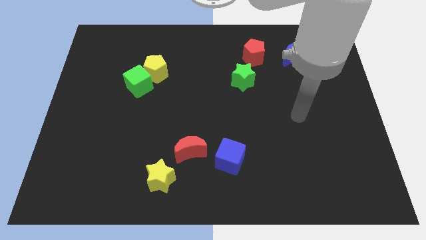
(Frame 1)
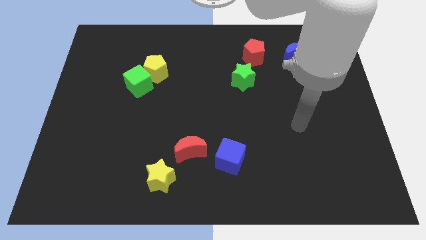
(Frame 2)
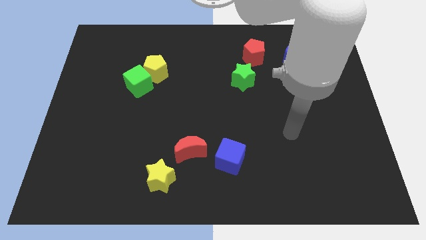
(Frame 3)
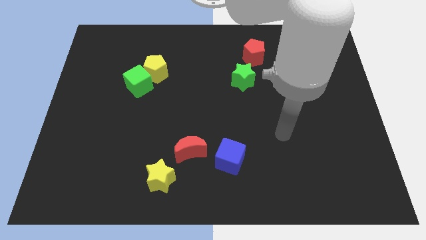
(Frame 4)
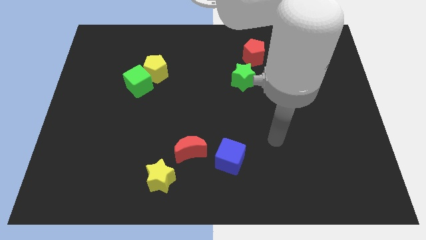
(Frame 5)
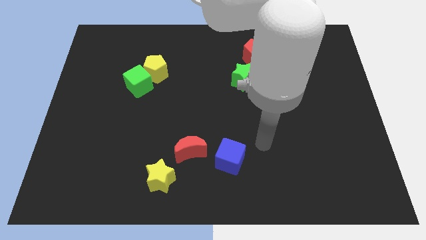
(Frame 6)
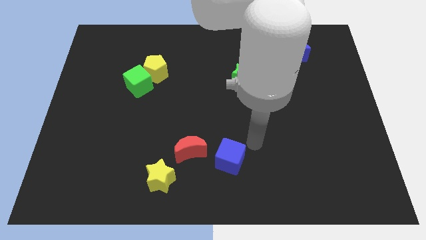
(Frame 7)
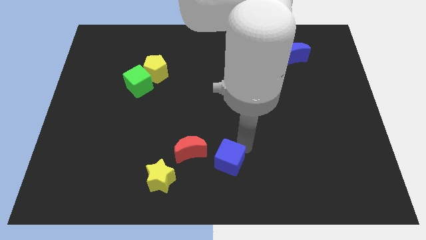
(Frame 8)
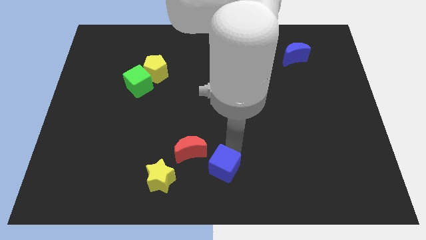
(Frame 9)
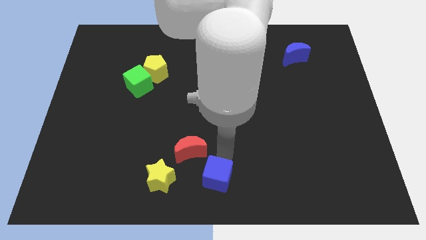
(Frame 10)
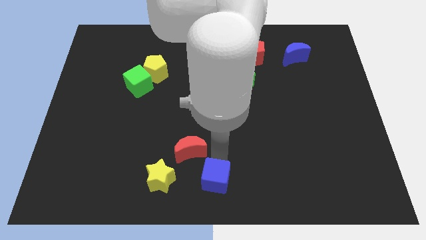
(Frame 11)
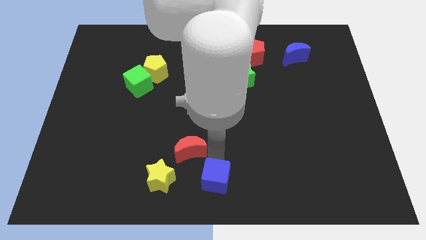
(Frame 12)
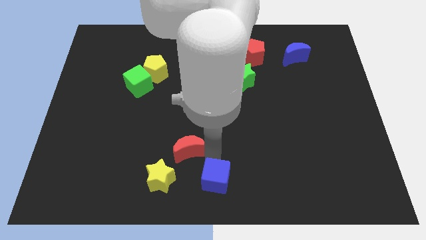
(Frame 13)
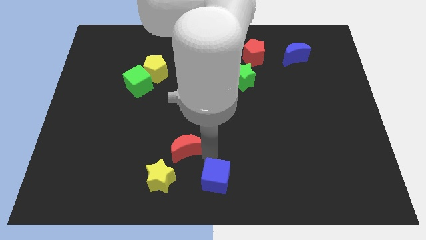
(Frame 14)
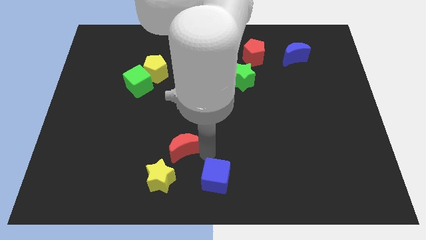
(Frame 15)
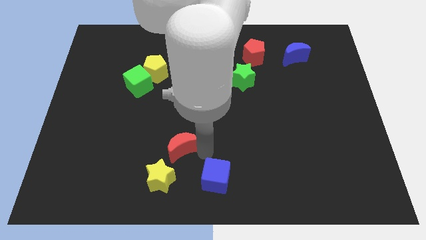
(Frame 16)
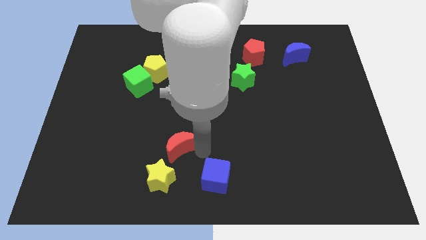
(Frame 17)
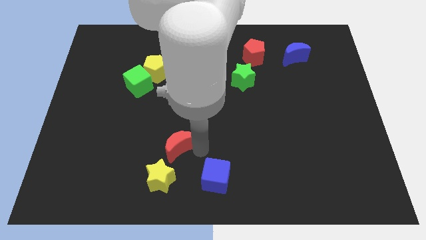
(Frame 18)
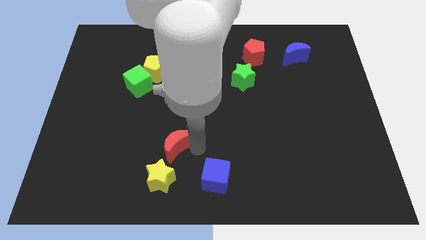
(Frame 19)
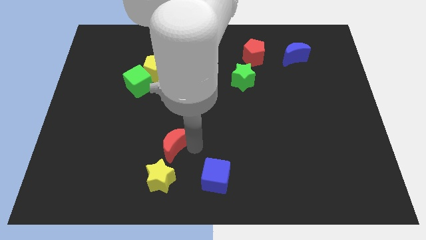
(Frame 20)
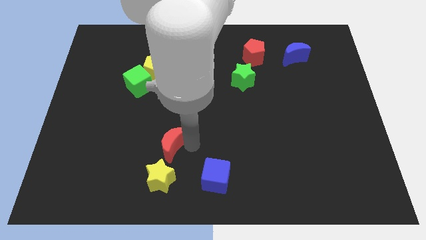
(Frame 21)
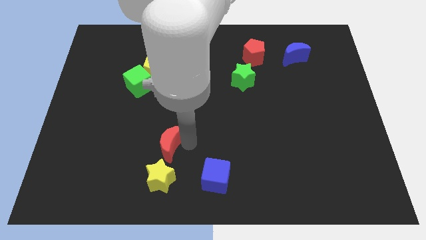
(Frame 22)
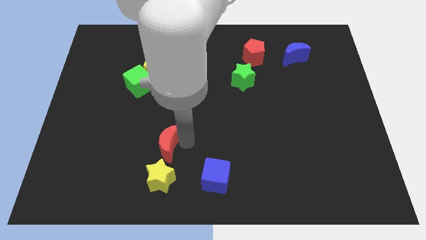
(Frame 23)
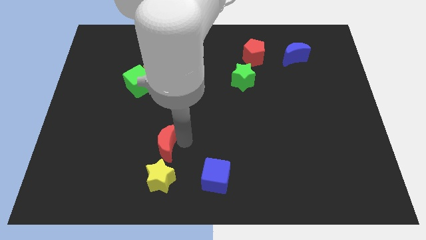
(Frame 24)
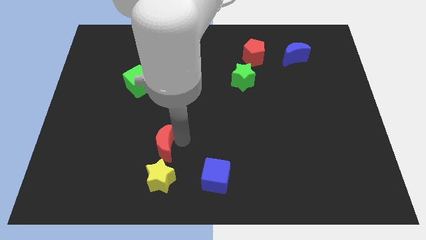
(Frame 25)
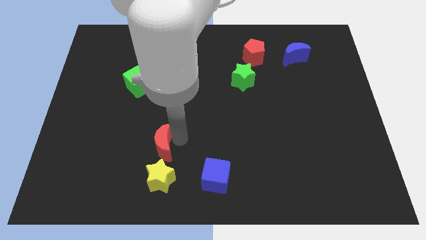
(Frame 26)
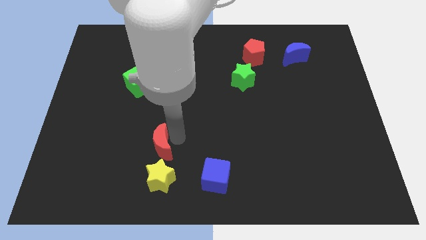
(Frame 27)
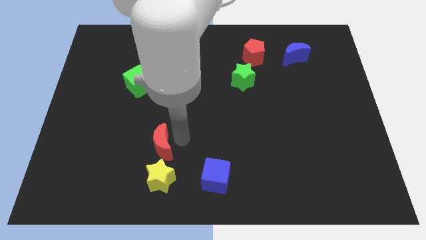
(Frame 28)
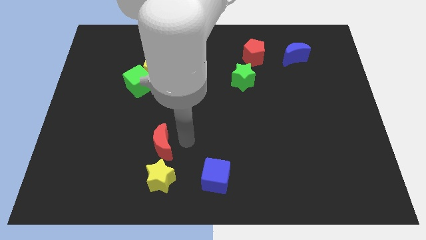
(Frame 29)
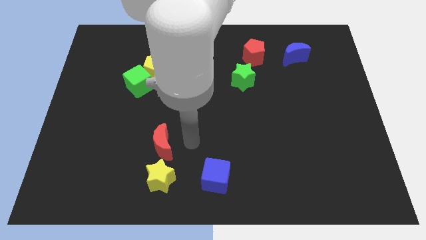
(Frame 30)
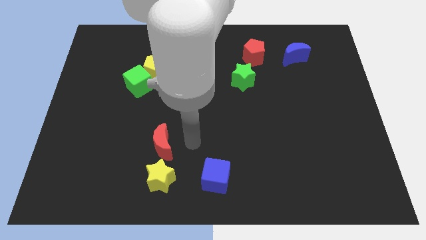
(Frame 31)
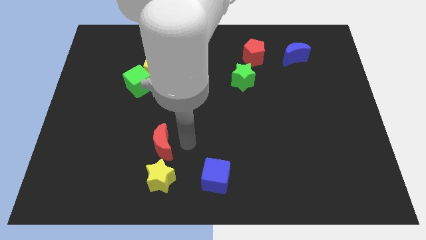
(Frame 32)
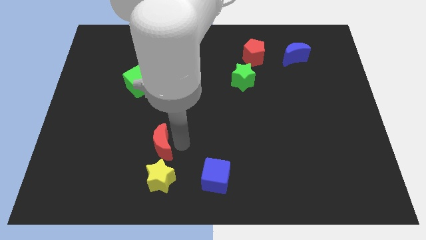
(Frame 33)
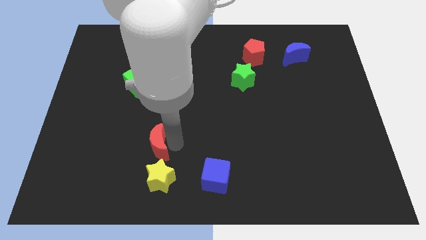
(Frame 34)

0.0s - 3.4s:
slightly slide the red moon left

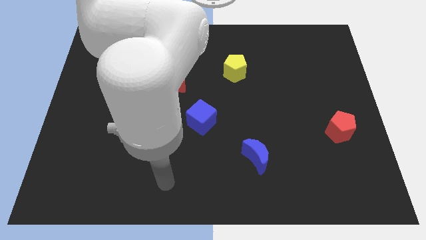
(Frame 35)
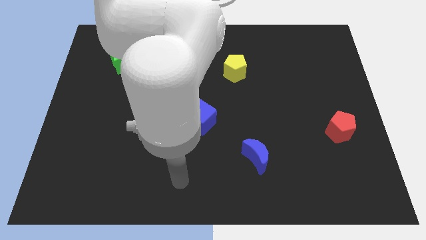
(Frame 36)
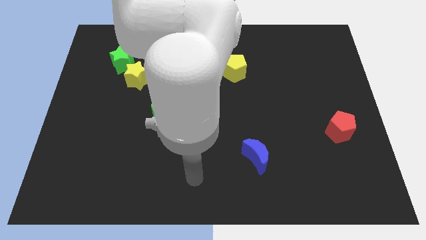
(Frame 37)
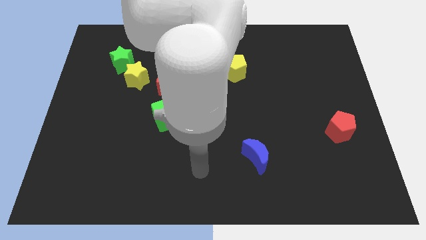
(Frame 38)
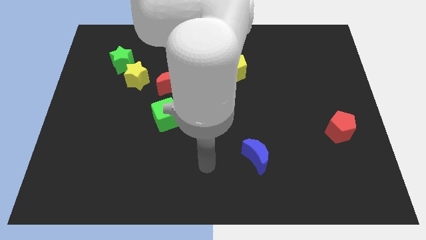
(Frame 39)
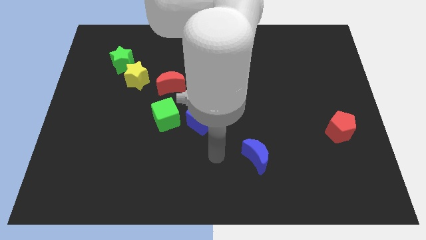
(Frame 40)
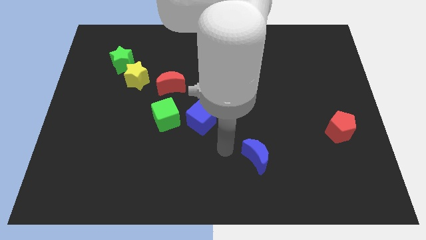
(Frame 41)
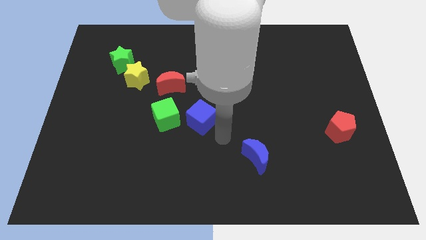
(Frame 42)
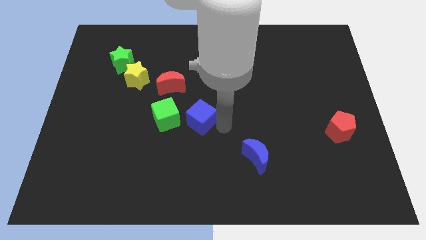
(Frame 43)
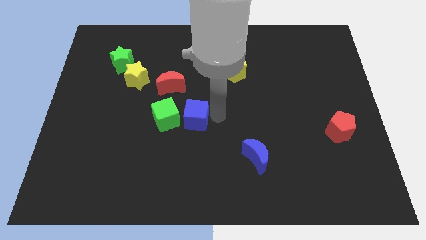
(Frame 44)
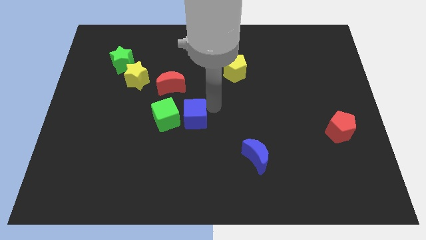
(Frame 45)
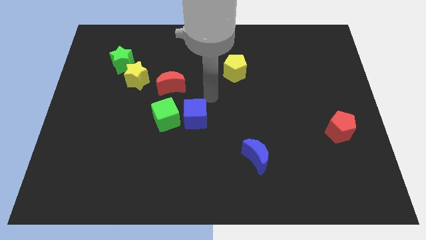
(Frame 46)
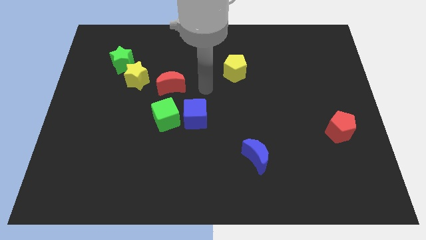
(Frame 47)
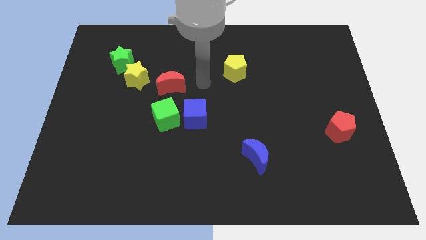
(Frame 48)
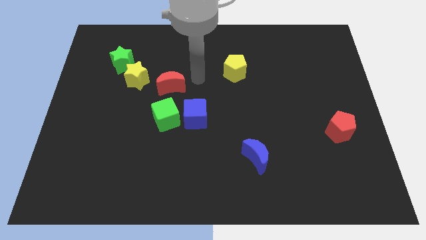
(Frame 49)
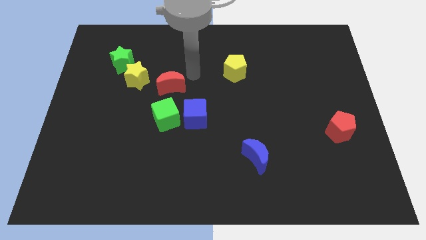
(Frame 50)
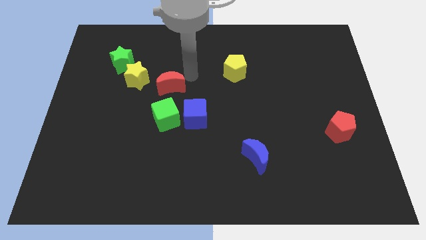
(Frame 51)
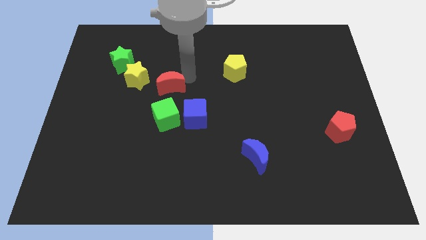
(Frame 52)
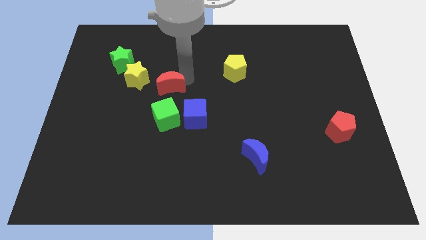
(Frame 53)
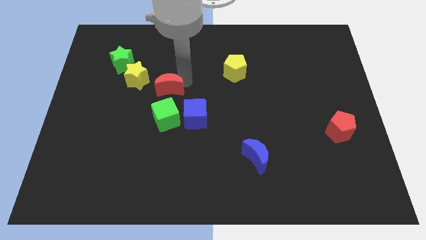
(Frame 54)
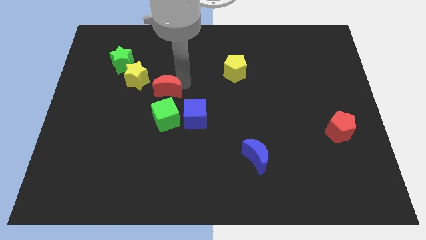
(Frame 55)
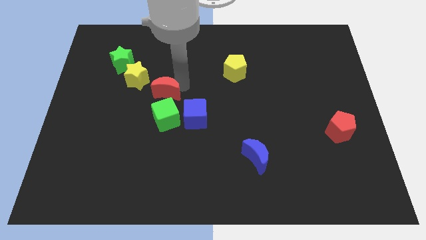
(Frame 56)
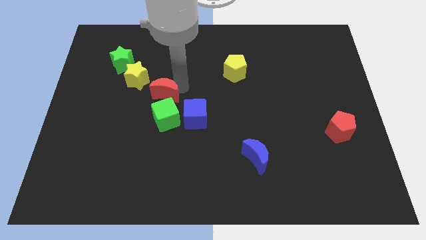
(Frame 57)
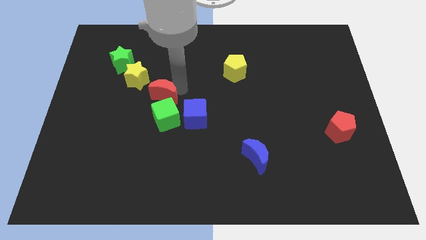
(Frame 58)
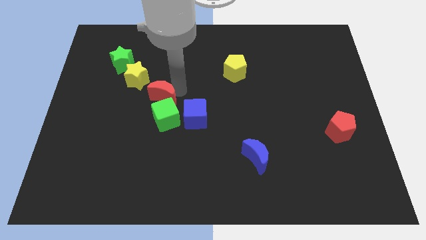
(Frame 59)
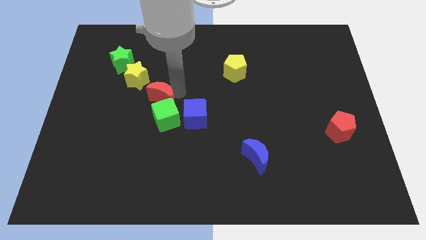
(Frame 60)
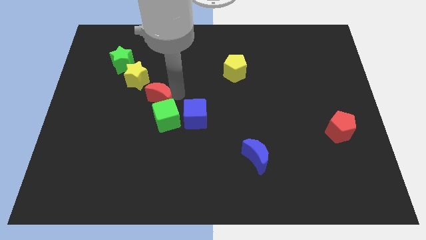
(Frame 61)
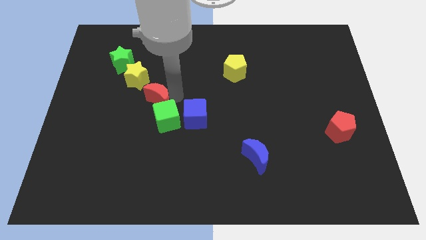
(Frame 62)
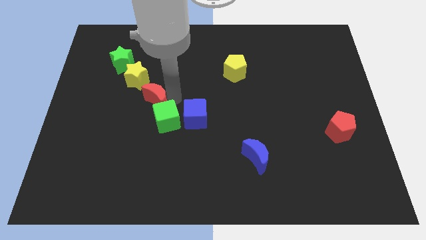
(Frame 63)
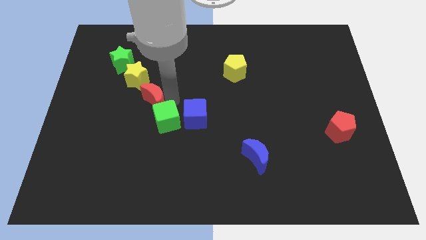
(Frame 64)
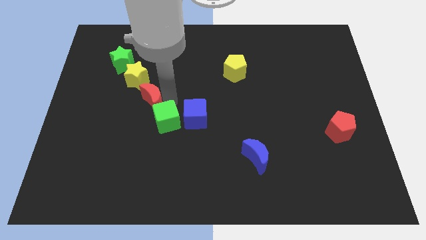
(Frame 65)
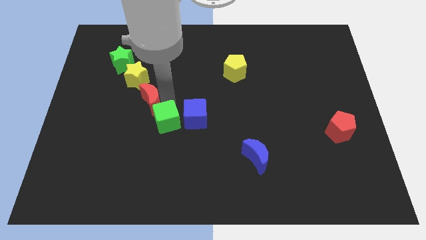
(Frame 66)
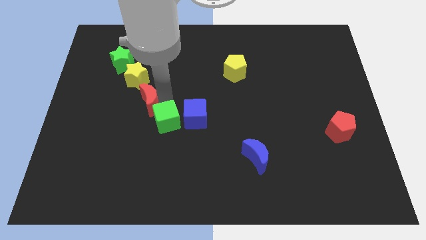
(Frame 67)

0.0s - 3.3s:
slightly slide the red moon down and to the left

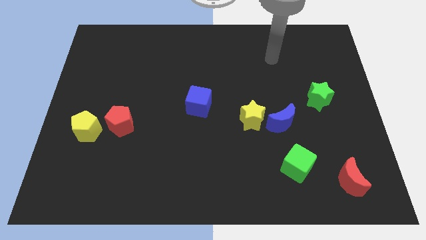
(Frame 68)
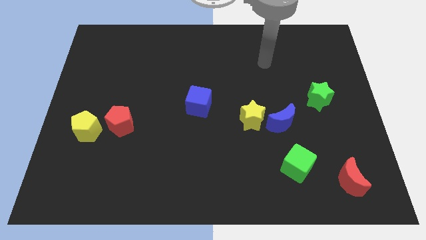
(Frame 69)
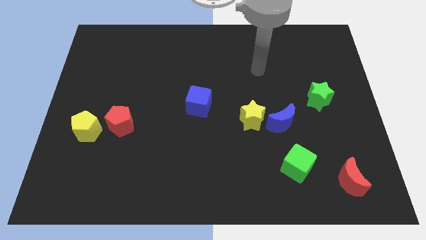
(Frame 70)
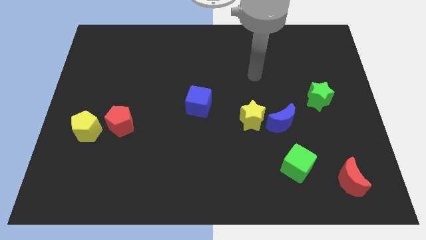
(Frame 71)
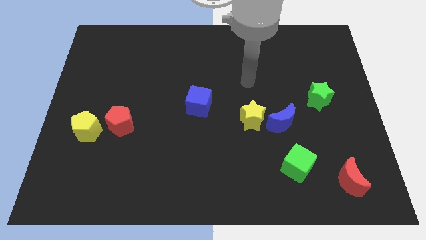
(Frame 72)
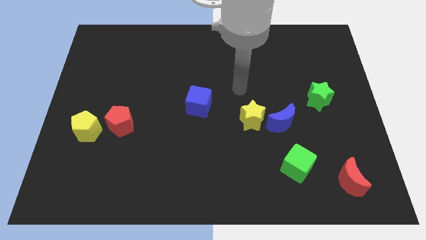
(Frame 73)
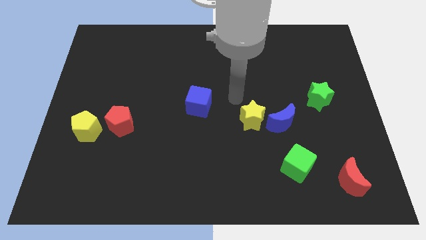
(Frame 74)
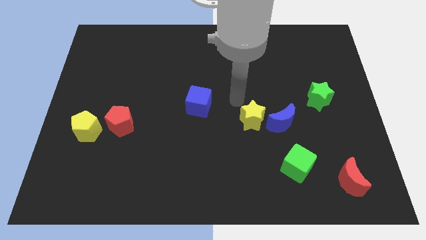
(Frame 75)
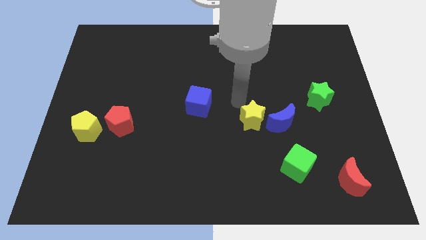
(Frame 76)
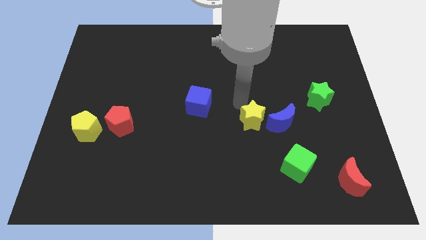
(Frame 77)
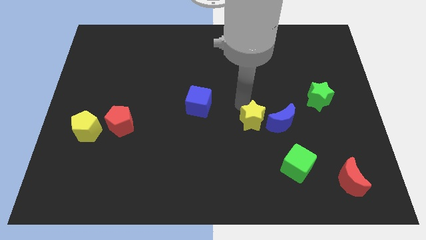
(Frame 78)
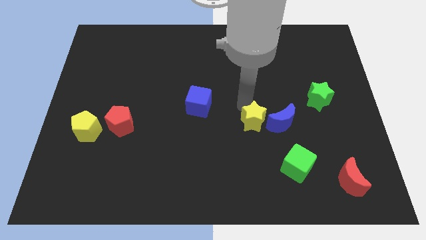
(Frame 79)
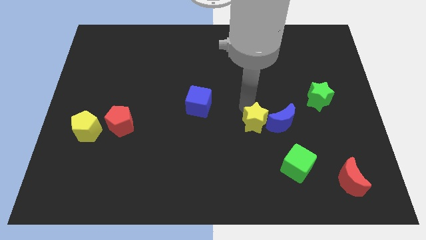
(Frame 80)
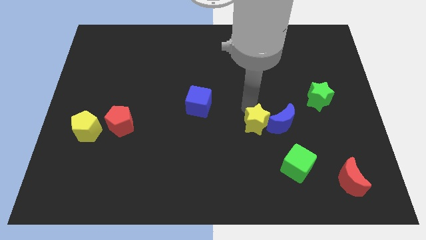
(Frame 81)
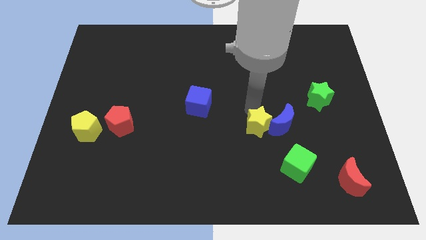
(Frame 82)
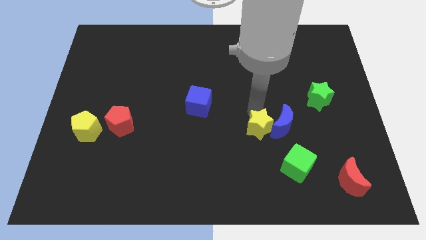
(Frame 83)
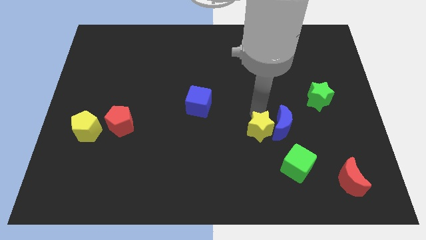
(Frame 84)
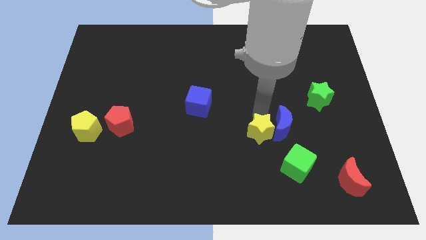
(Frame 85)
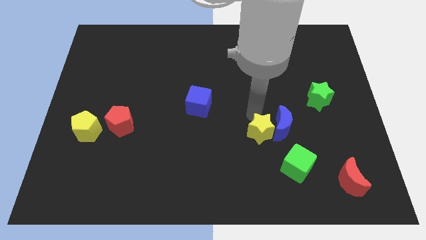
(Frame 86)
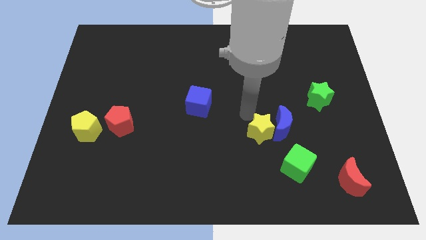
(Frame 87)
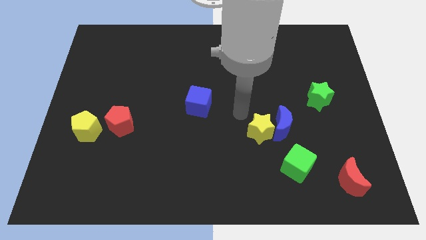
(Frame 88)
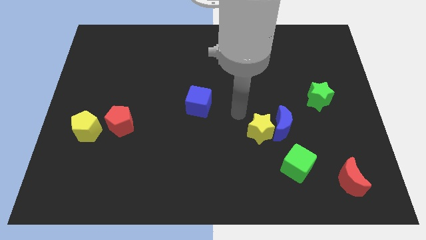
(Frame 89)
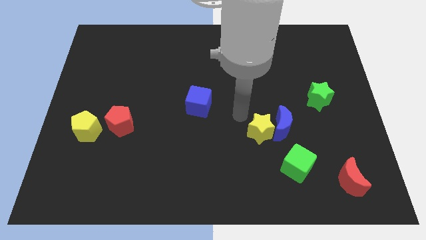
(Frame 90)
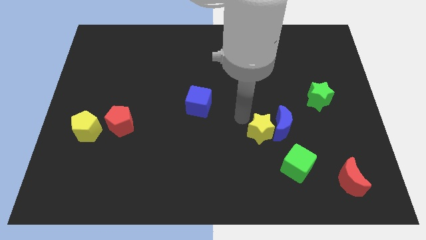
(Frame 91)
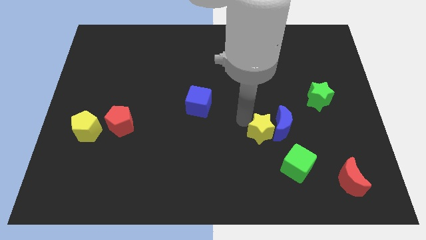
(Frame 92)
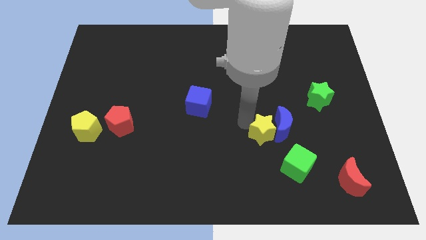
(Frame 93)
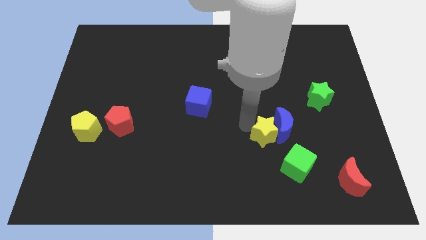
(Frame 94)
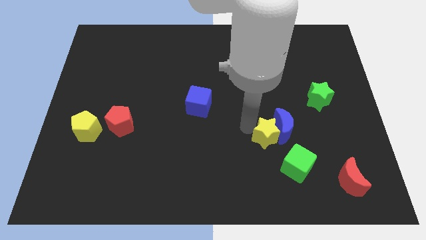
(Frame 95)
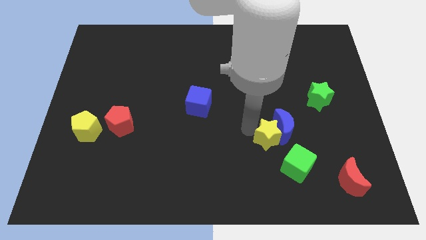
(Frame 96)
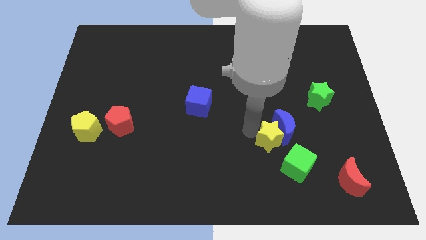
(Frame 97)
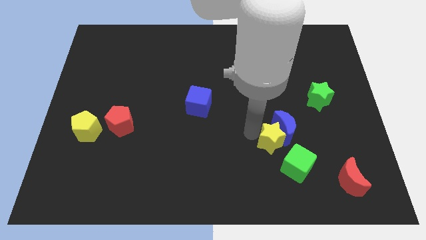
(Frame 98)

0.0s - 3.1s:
slide the yellow star a little diagonally downwards and right
